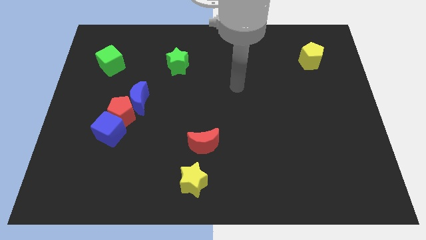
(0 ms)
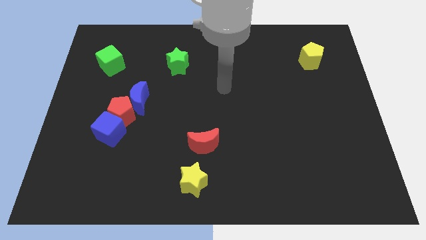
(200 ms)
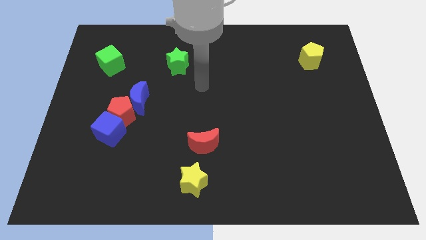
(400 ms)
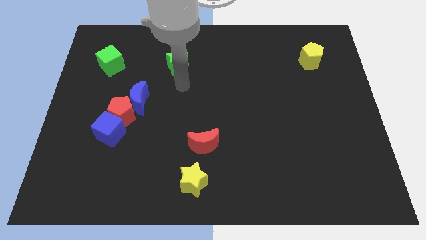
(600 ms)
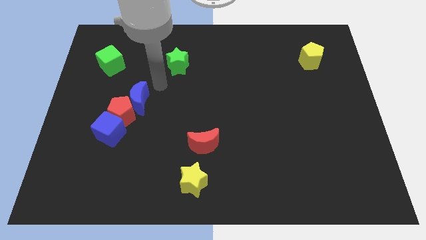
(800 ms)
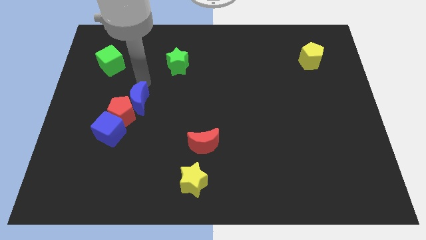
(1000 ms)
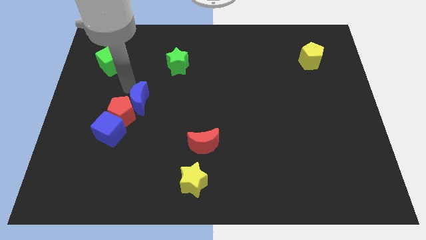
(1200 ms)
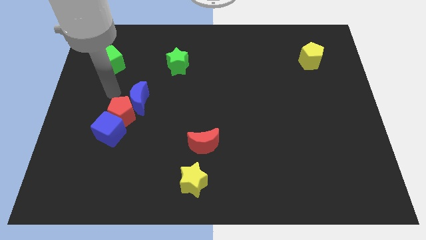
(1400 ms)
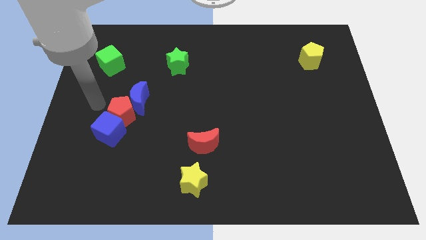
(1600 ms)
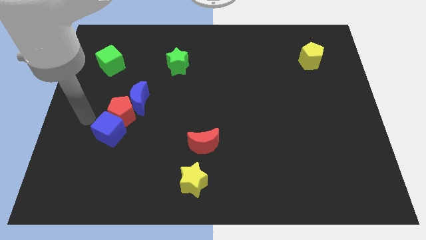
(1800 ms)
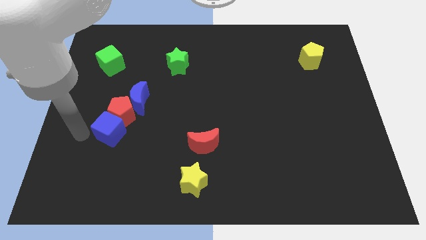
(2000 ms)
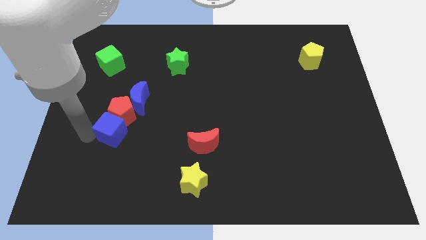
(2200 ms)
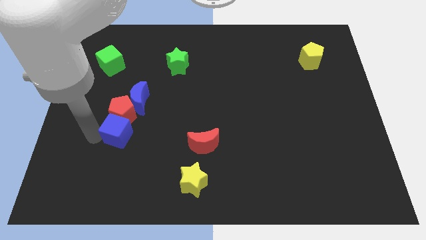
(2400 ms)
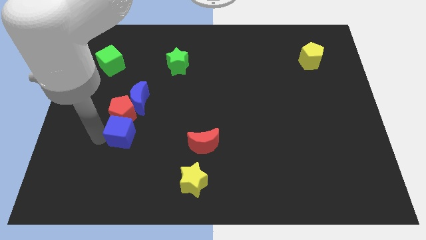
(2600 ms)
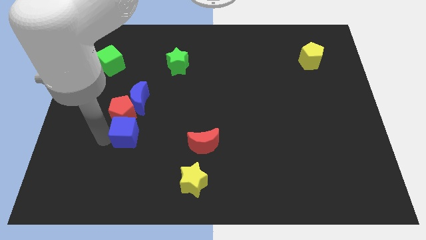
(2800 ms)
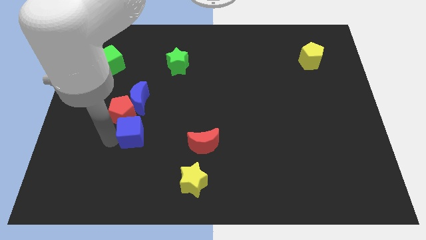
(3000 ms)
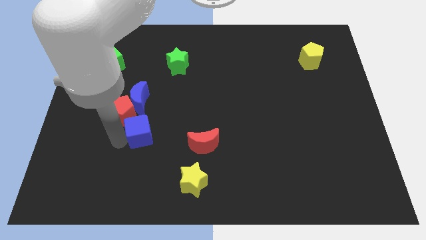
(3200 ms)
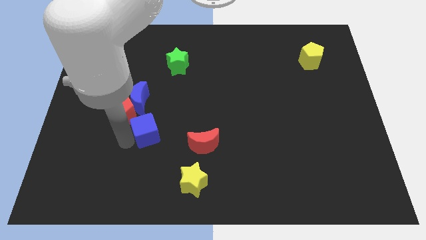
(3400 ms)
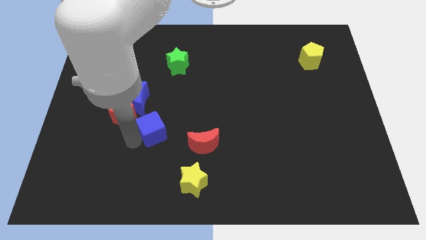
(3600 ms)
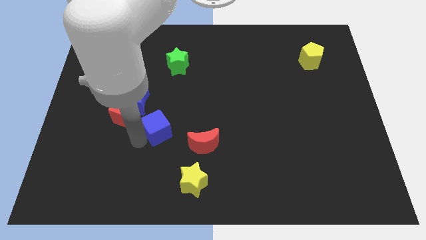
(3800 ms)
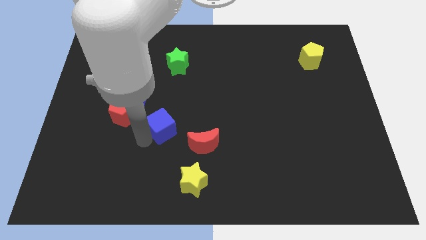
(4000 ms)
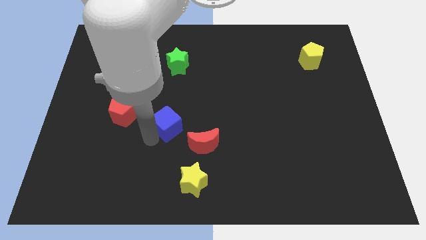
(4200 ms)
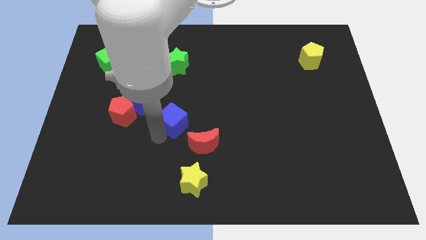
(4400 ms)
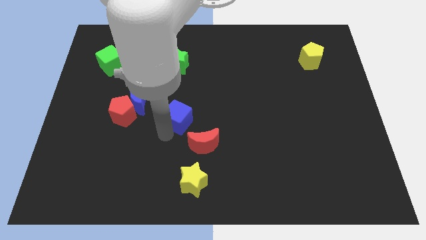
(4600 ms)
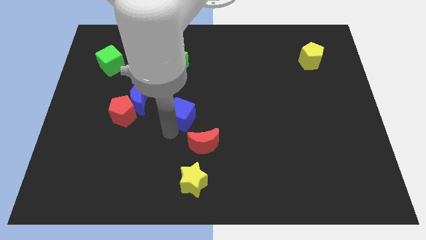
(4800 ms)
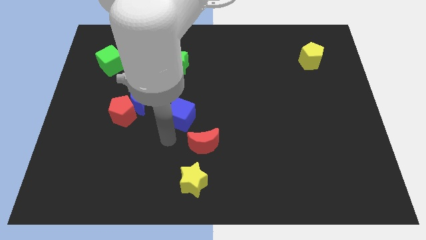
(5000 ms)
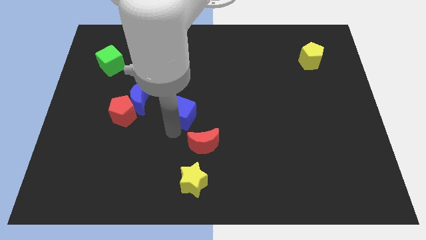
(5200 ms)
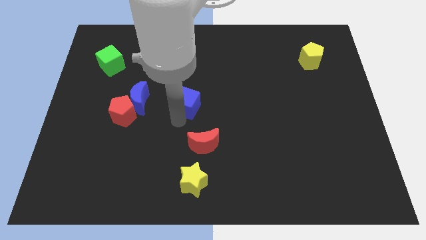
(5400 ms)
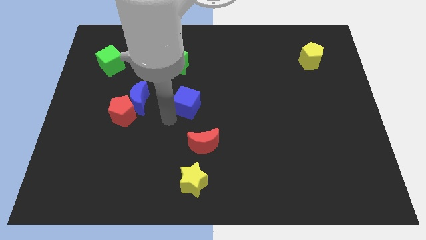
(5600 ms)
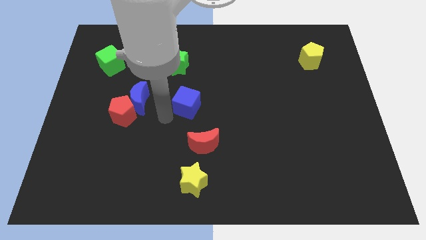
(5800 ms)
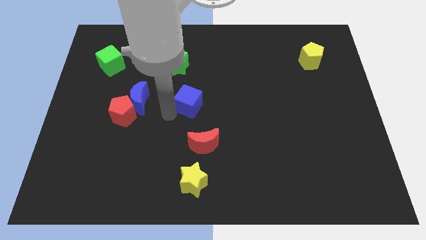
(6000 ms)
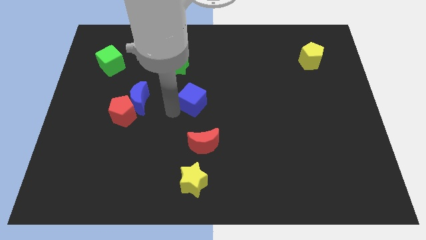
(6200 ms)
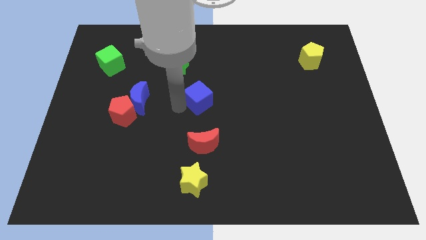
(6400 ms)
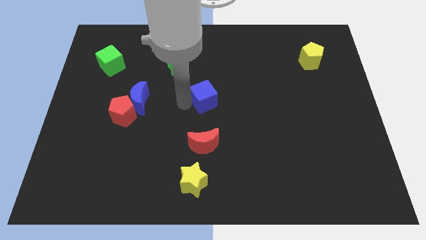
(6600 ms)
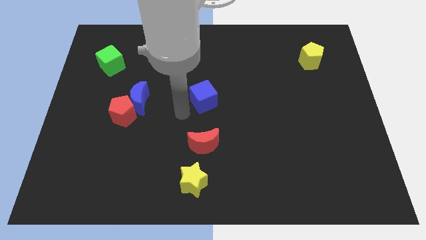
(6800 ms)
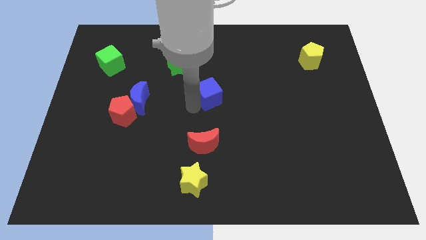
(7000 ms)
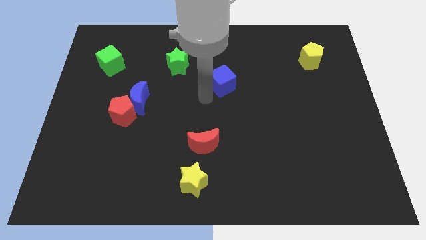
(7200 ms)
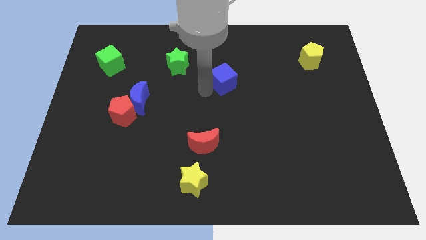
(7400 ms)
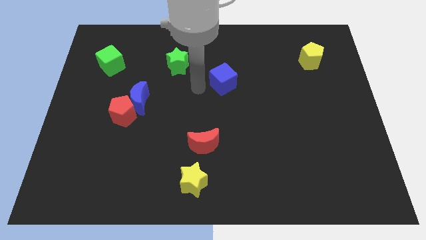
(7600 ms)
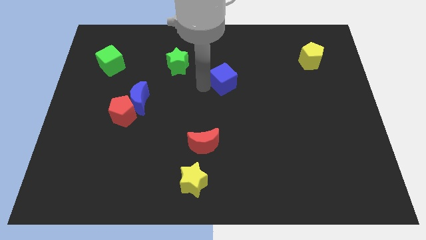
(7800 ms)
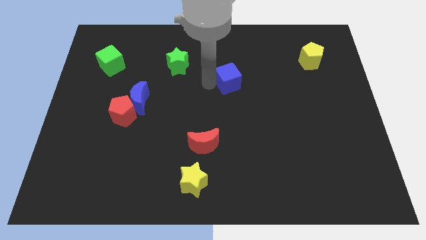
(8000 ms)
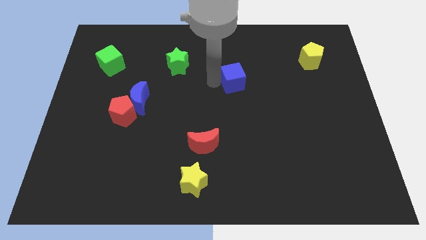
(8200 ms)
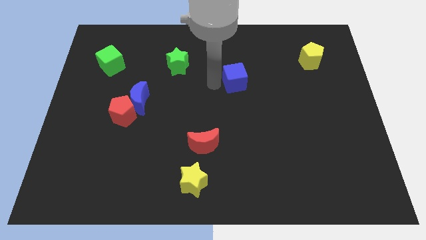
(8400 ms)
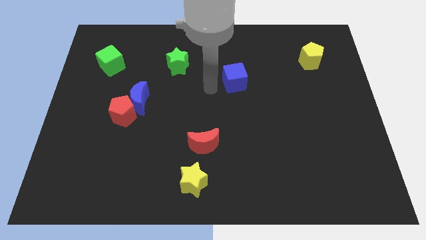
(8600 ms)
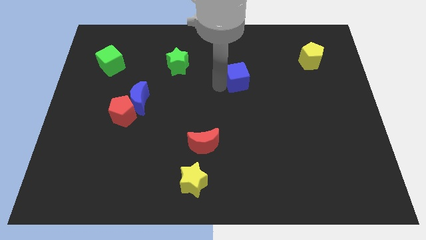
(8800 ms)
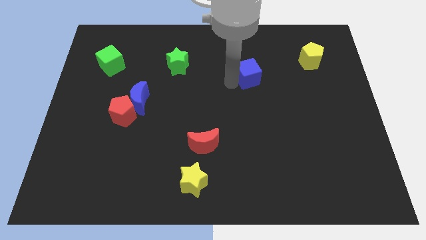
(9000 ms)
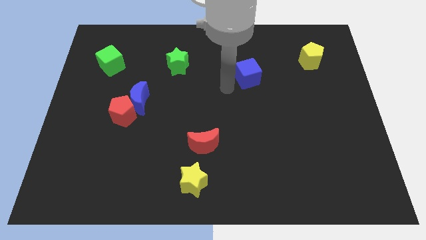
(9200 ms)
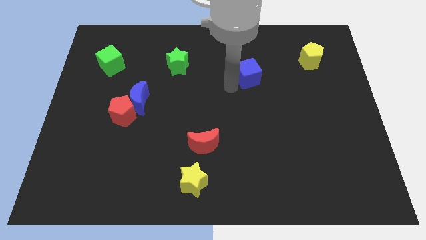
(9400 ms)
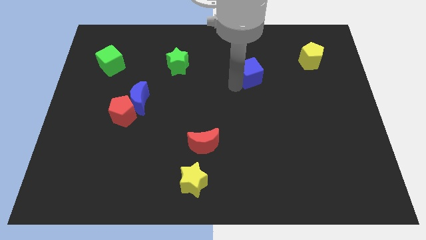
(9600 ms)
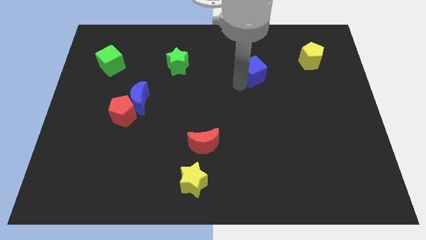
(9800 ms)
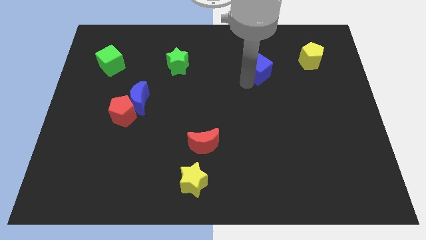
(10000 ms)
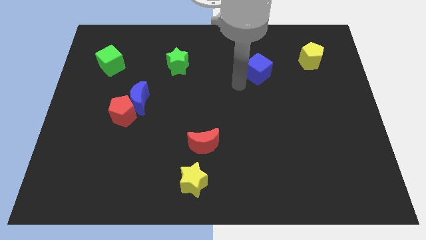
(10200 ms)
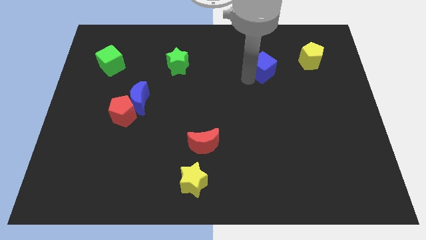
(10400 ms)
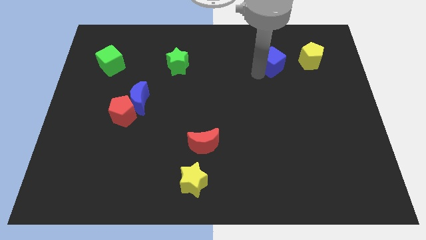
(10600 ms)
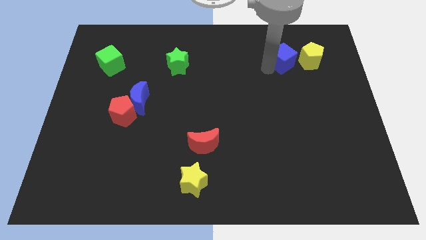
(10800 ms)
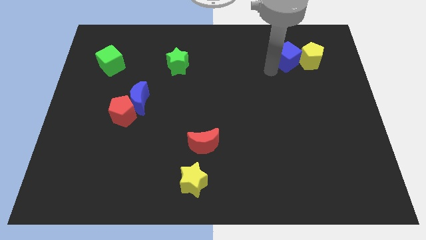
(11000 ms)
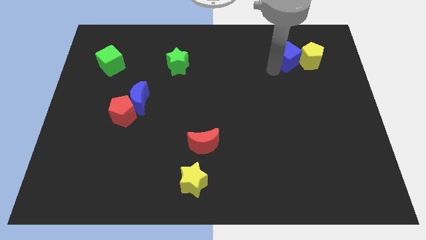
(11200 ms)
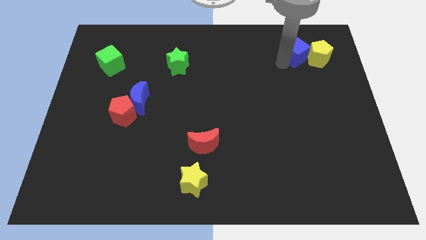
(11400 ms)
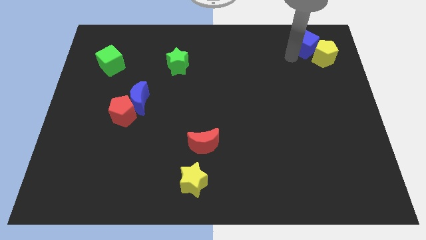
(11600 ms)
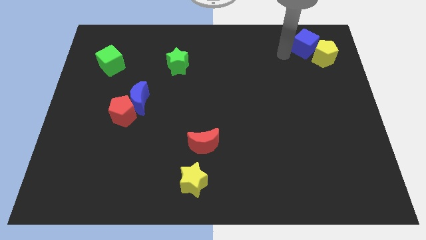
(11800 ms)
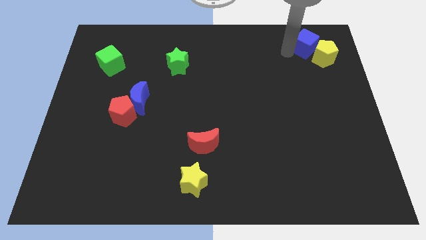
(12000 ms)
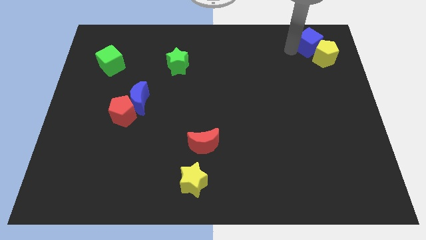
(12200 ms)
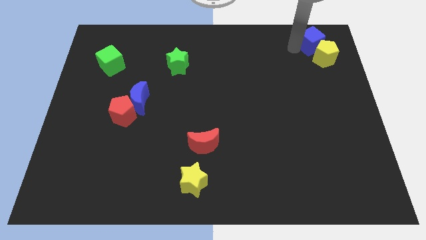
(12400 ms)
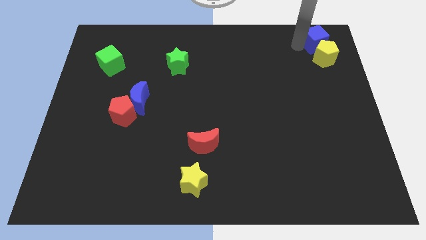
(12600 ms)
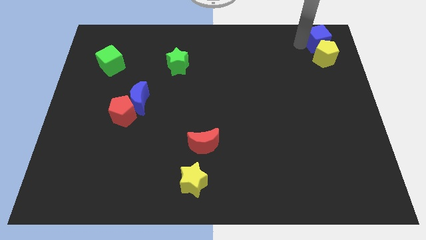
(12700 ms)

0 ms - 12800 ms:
slide the blue cube to the top right of the board
